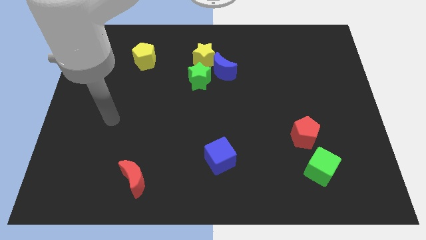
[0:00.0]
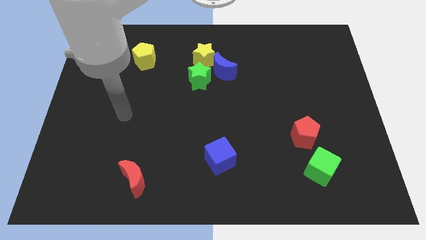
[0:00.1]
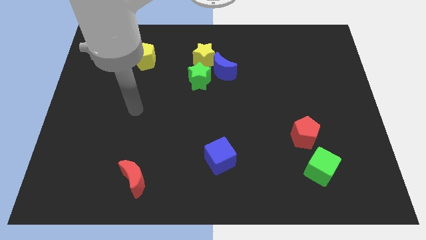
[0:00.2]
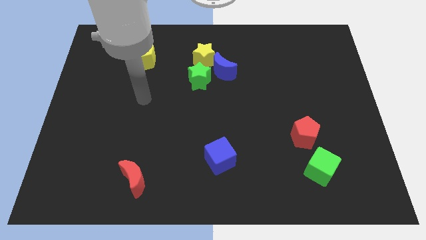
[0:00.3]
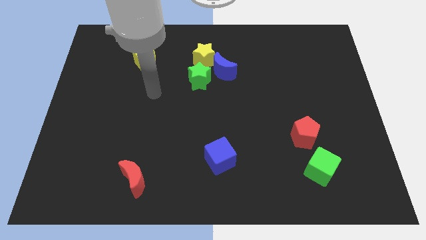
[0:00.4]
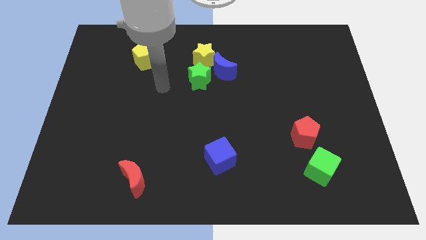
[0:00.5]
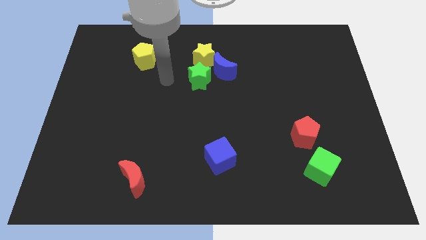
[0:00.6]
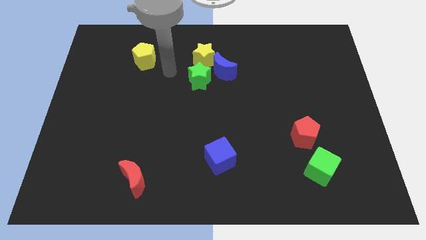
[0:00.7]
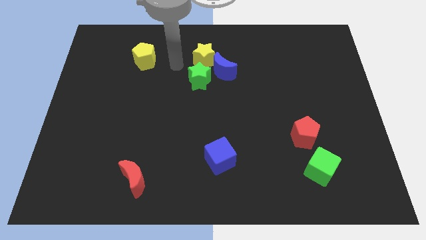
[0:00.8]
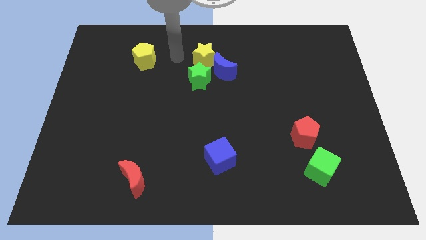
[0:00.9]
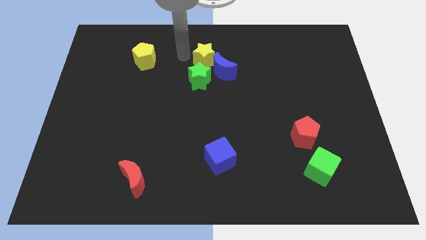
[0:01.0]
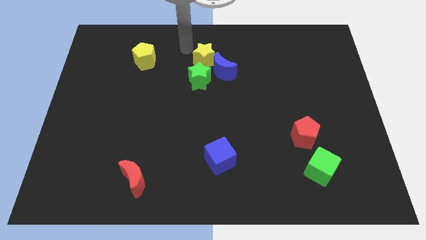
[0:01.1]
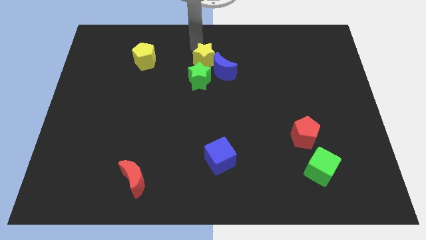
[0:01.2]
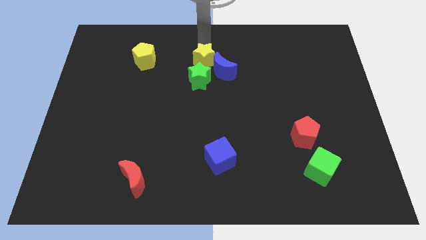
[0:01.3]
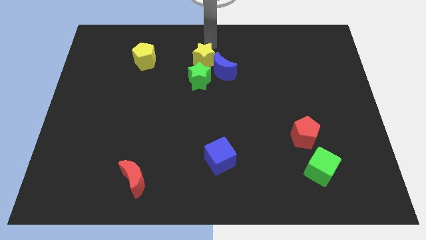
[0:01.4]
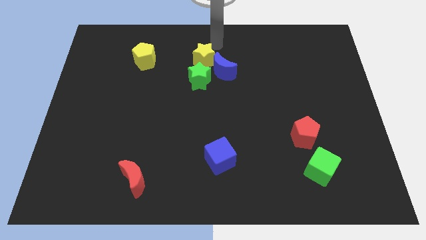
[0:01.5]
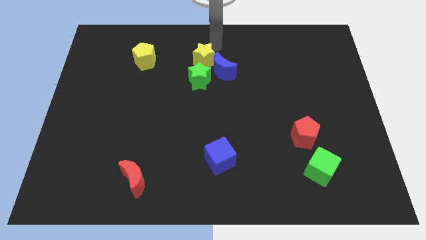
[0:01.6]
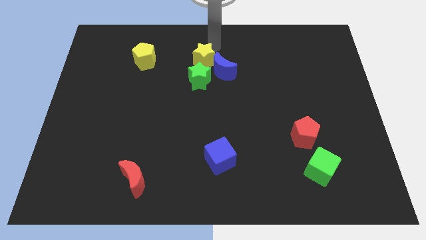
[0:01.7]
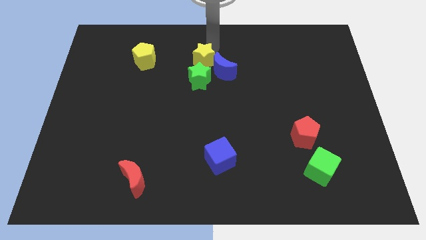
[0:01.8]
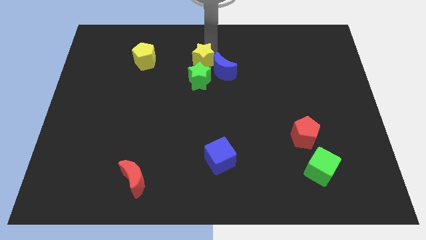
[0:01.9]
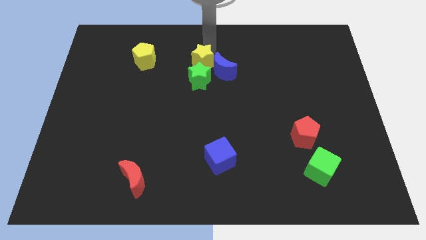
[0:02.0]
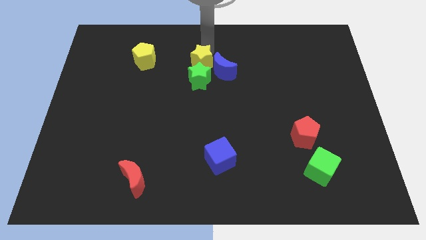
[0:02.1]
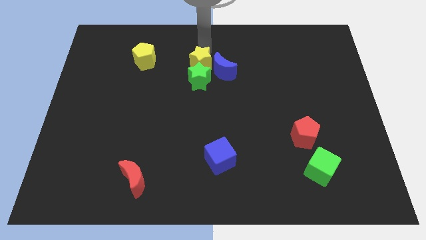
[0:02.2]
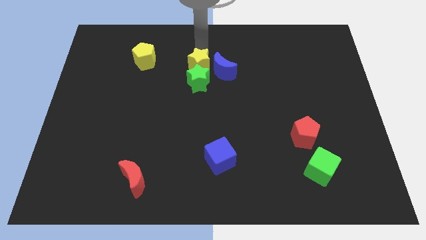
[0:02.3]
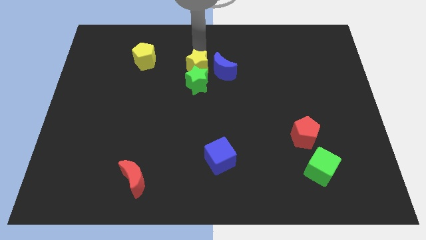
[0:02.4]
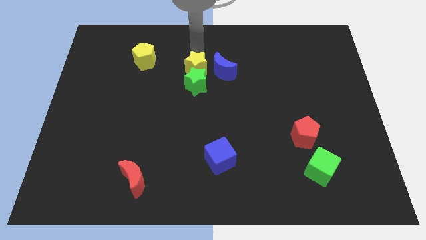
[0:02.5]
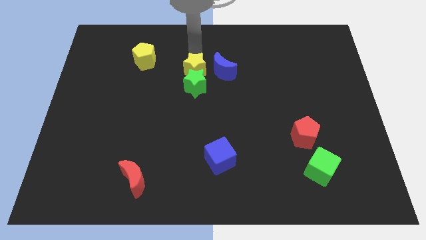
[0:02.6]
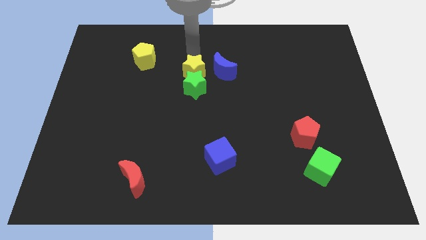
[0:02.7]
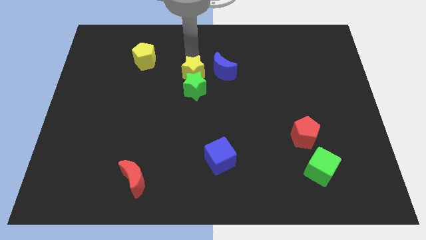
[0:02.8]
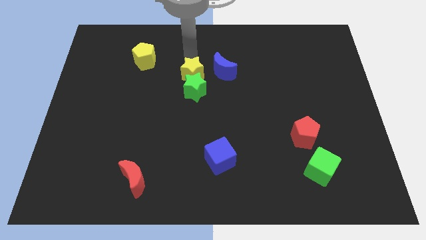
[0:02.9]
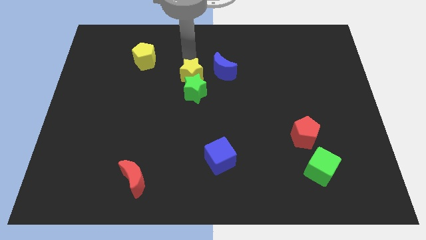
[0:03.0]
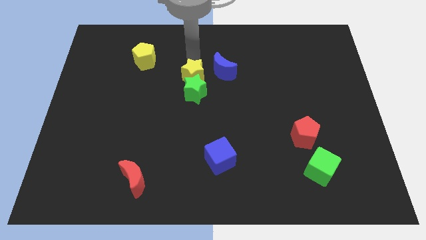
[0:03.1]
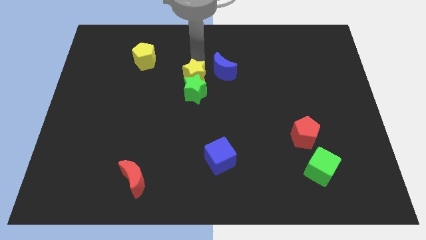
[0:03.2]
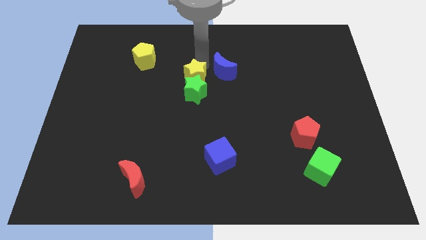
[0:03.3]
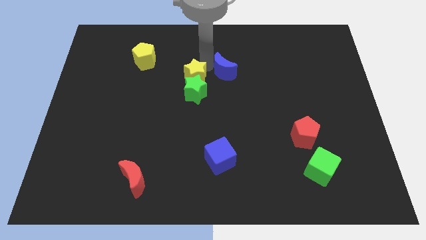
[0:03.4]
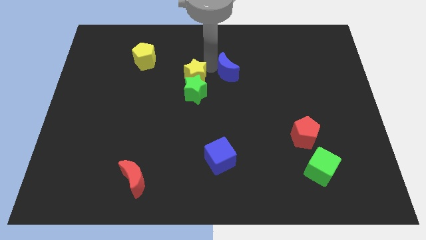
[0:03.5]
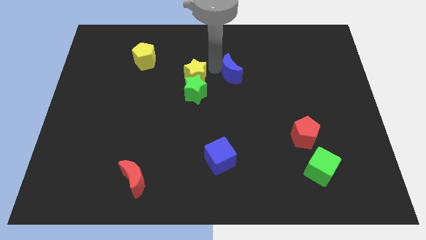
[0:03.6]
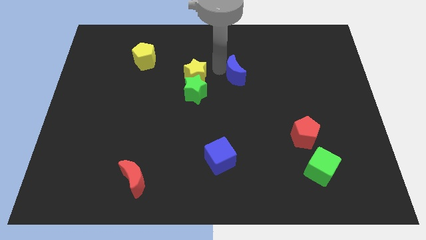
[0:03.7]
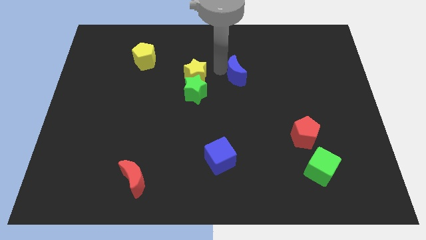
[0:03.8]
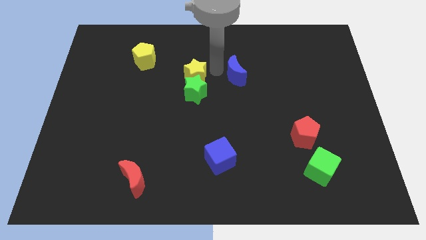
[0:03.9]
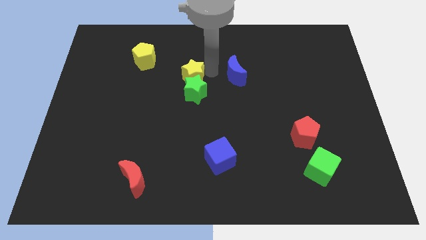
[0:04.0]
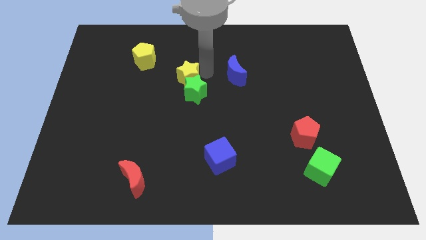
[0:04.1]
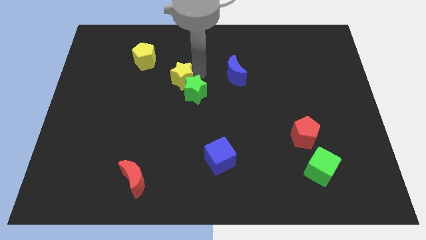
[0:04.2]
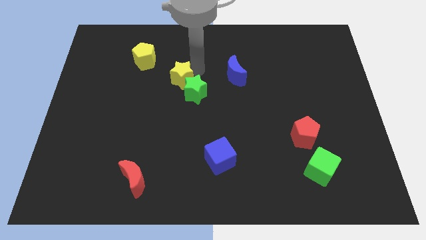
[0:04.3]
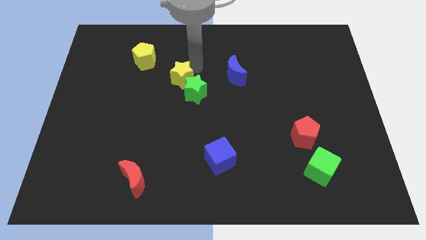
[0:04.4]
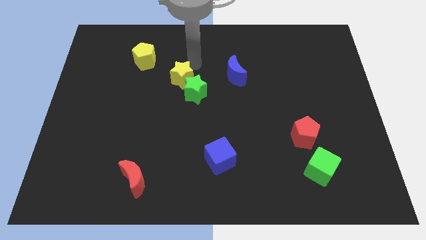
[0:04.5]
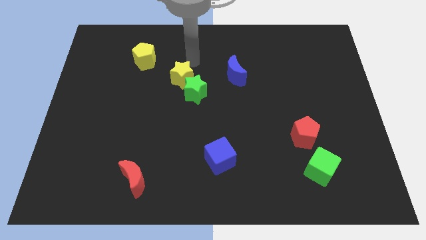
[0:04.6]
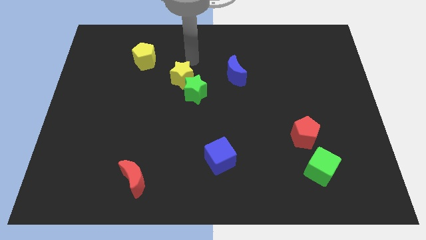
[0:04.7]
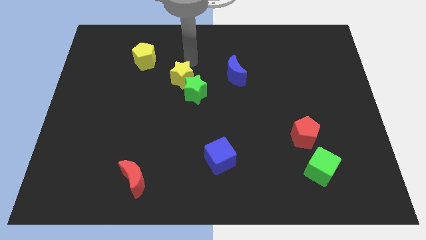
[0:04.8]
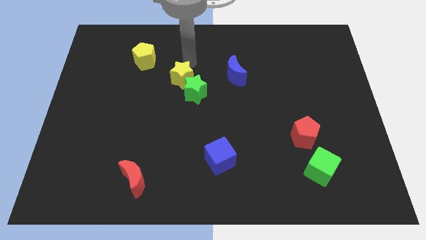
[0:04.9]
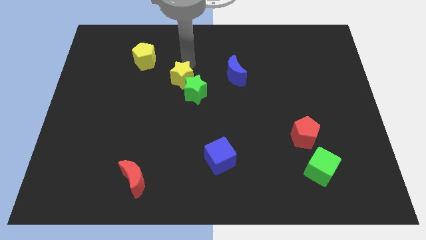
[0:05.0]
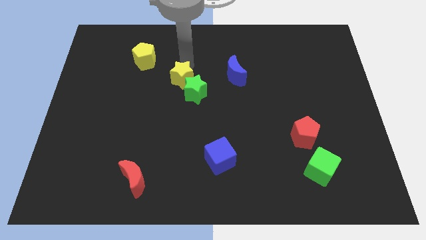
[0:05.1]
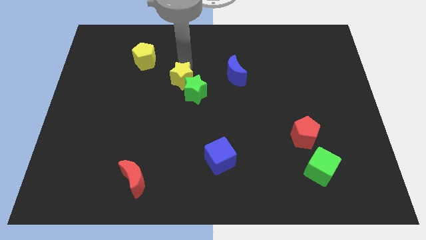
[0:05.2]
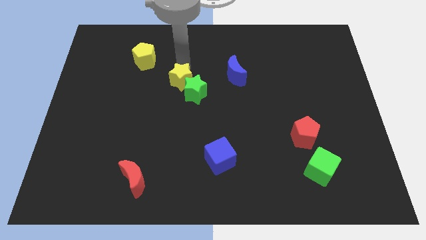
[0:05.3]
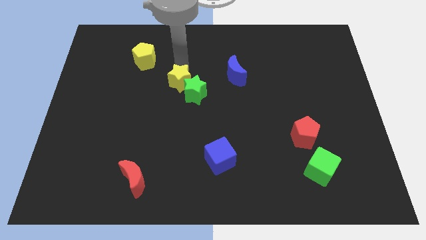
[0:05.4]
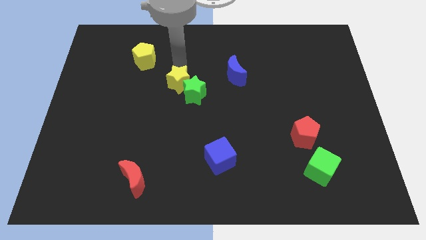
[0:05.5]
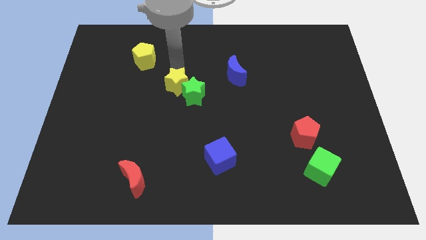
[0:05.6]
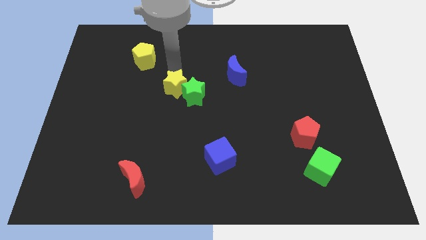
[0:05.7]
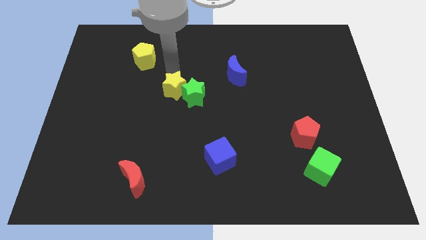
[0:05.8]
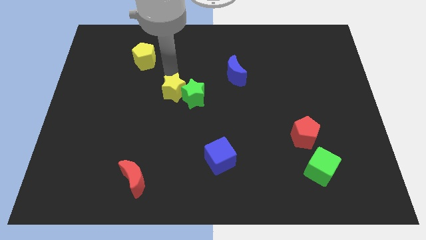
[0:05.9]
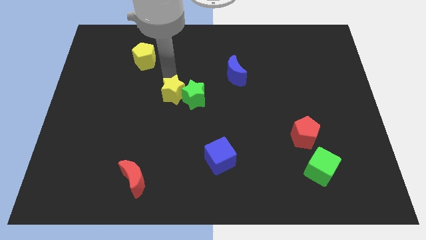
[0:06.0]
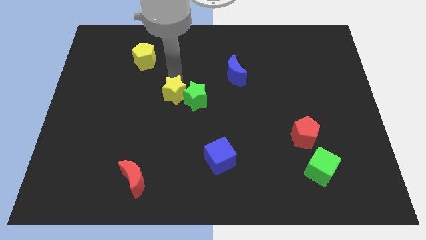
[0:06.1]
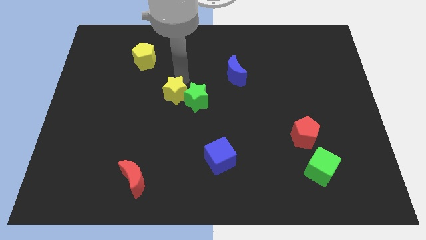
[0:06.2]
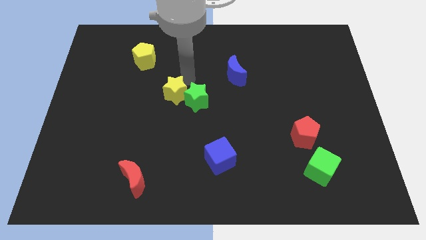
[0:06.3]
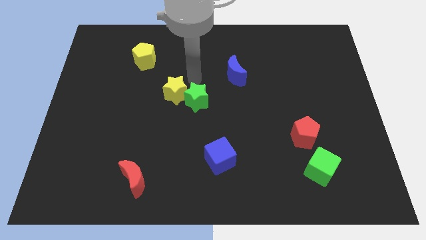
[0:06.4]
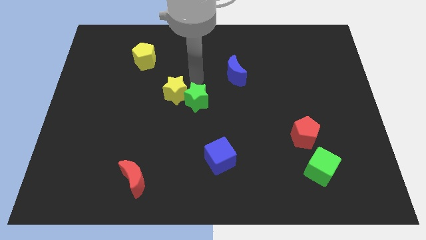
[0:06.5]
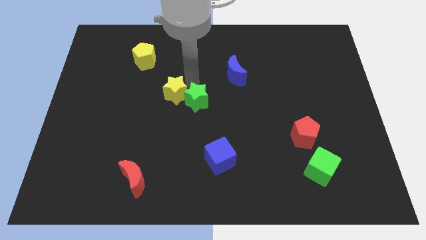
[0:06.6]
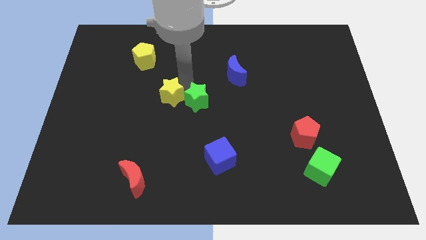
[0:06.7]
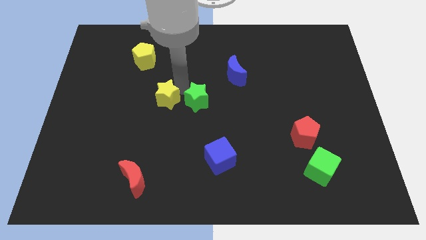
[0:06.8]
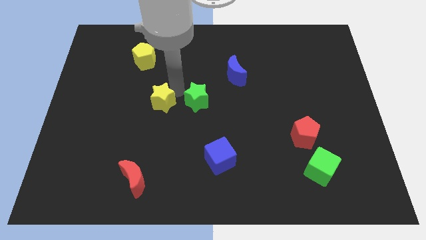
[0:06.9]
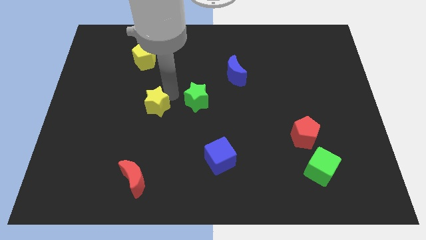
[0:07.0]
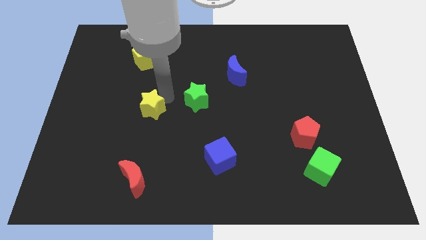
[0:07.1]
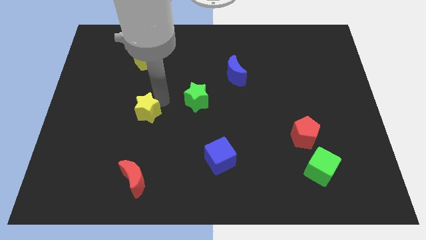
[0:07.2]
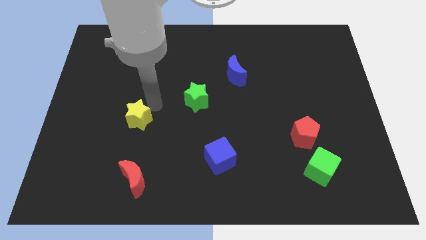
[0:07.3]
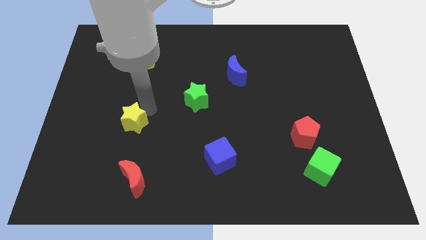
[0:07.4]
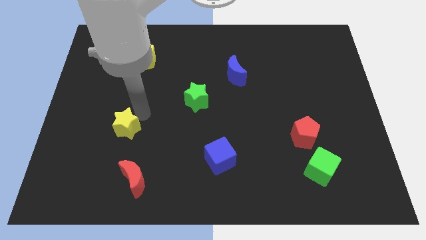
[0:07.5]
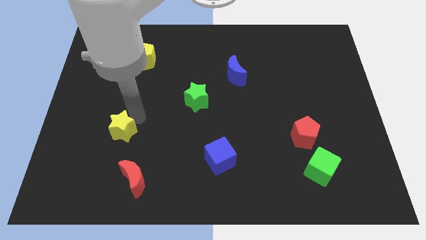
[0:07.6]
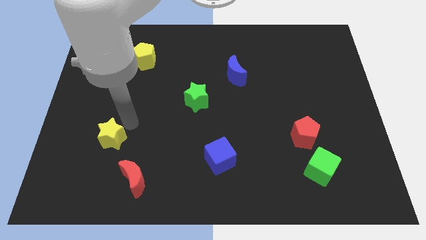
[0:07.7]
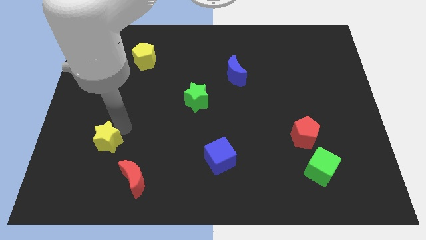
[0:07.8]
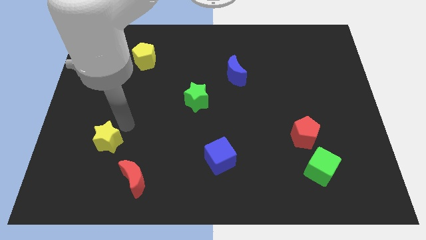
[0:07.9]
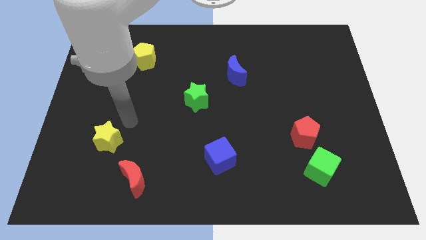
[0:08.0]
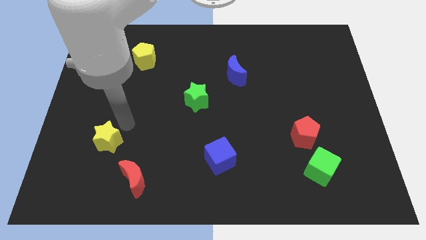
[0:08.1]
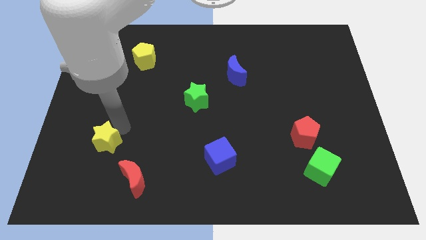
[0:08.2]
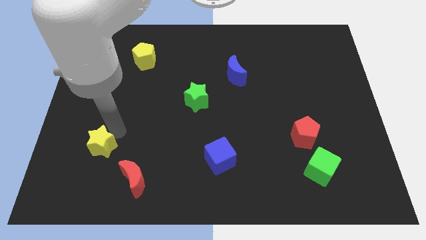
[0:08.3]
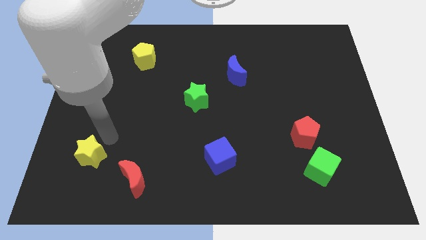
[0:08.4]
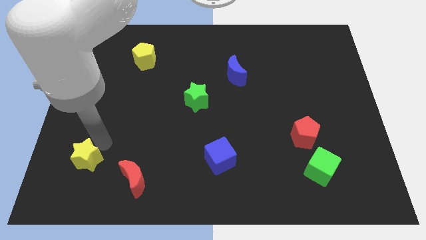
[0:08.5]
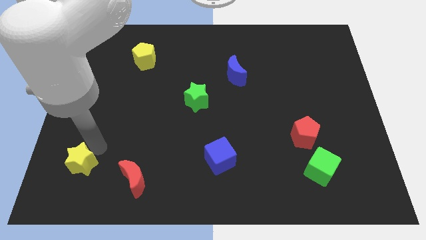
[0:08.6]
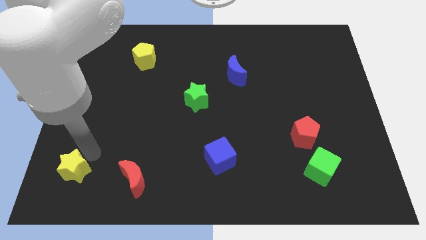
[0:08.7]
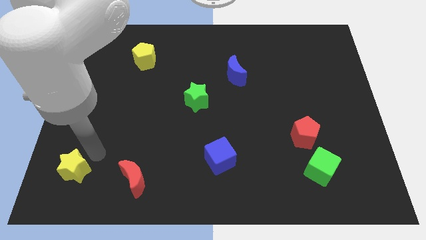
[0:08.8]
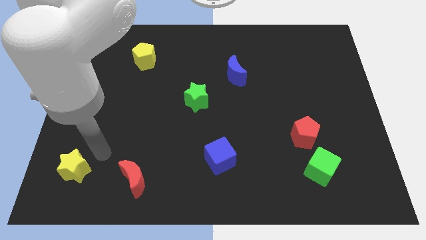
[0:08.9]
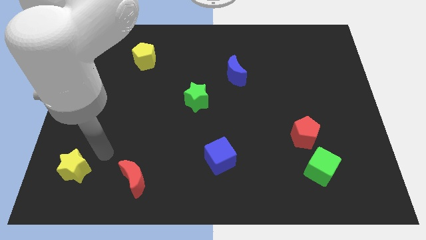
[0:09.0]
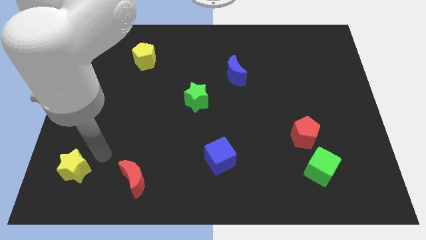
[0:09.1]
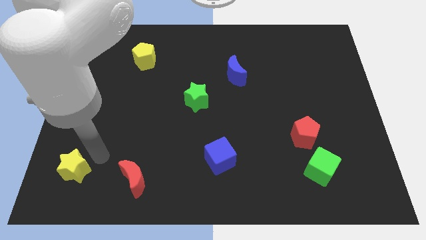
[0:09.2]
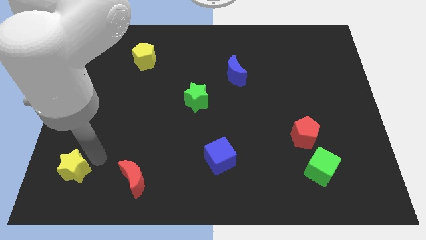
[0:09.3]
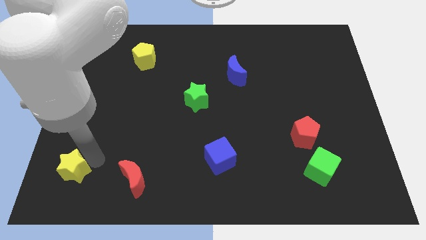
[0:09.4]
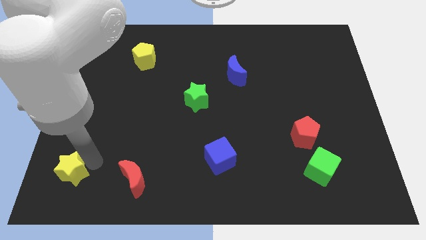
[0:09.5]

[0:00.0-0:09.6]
slide the yellow star to the bottom left of the board
